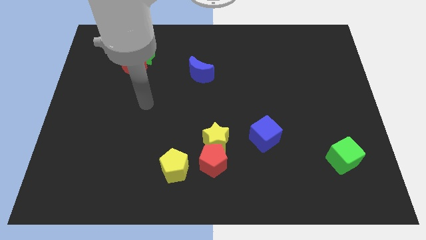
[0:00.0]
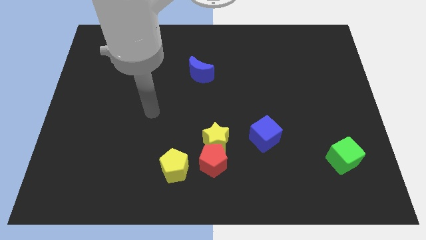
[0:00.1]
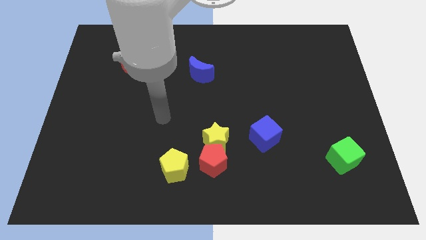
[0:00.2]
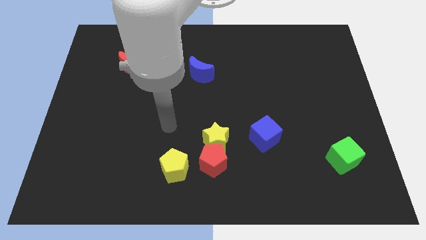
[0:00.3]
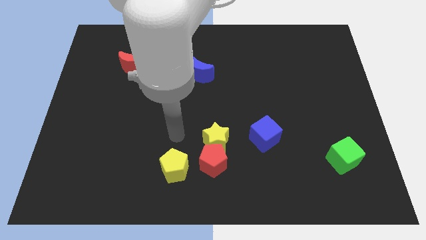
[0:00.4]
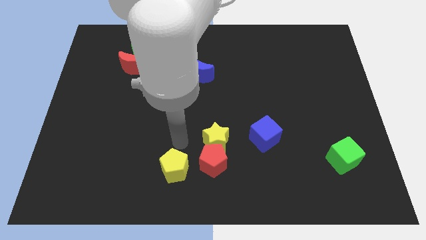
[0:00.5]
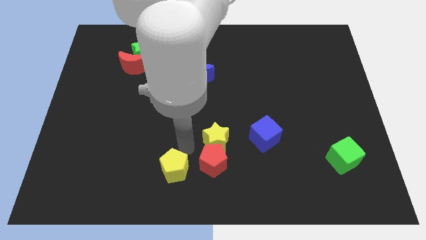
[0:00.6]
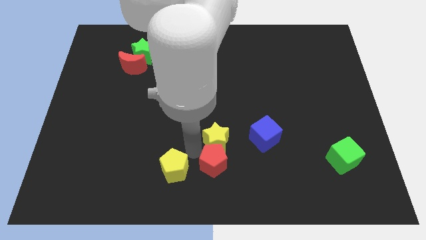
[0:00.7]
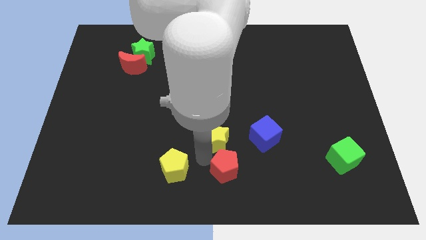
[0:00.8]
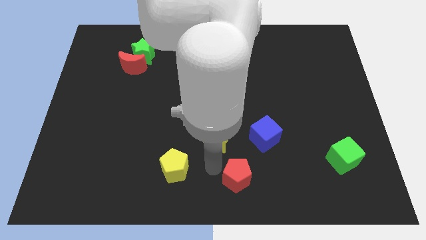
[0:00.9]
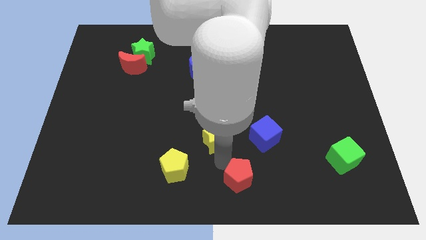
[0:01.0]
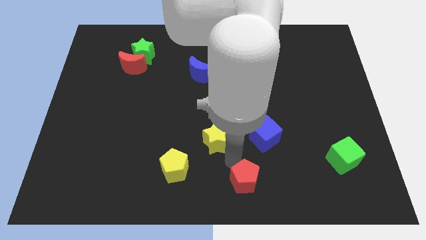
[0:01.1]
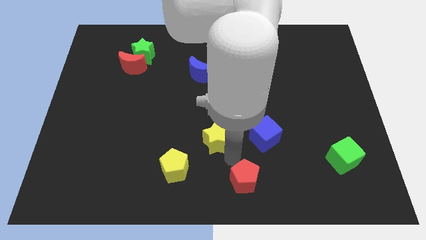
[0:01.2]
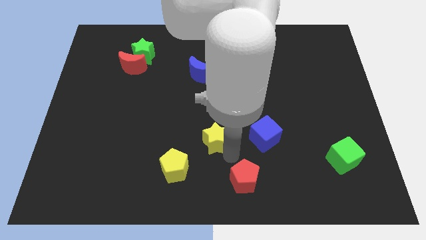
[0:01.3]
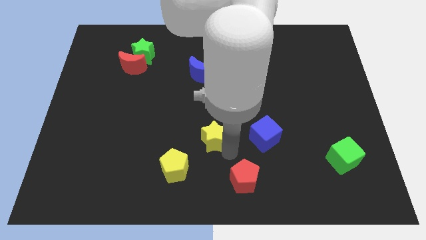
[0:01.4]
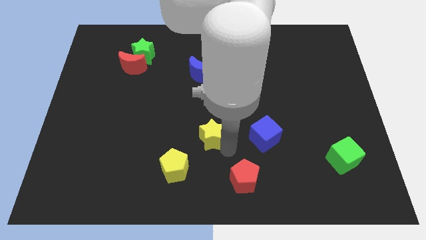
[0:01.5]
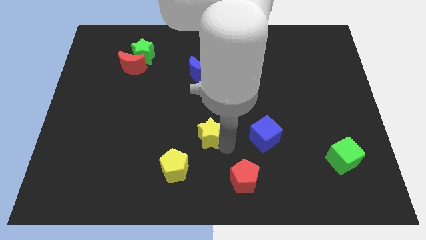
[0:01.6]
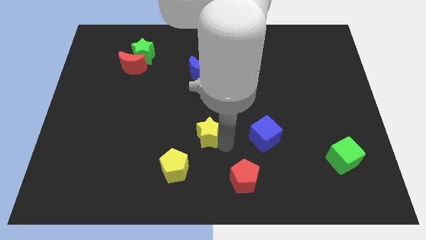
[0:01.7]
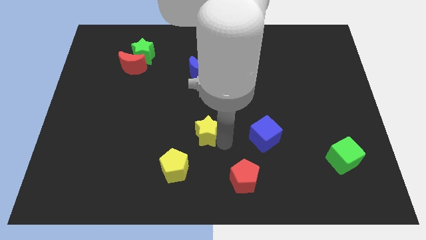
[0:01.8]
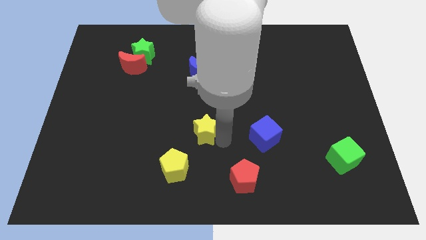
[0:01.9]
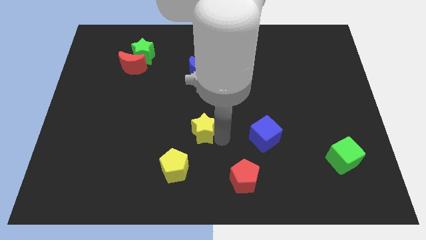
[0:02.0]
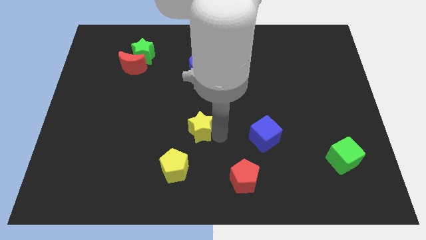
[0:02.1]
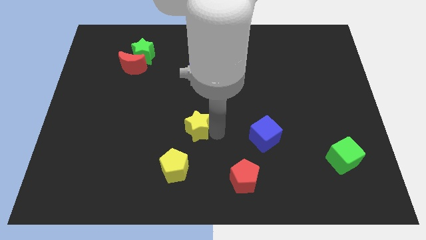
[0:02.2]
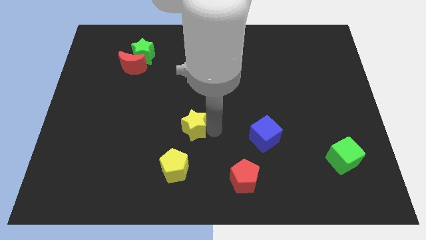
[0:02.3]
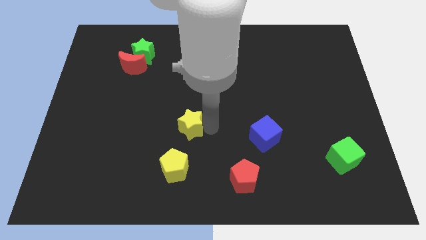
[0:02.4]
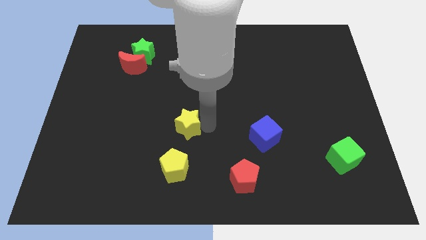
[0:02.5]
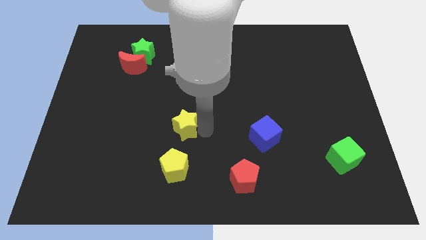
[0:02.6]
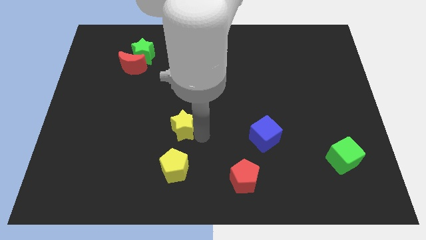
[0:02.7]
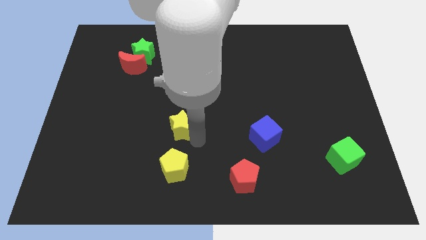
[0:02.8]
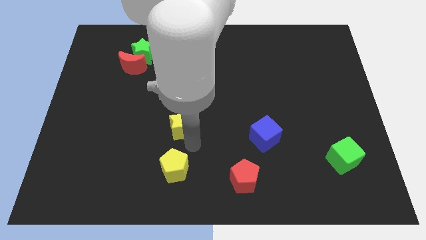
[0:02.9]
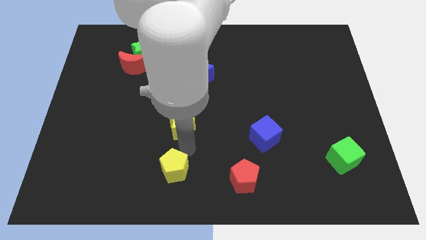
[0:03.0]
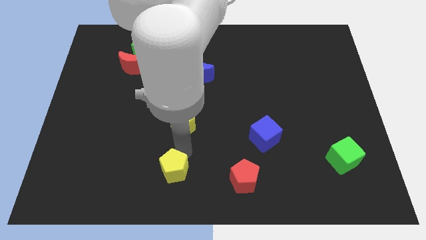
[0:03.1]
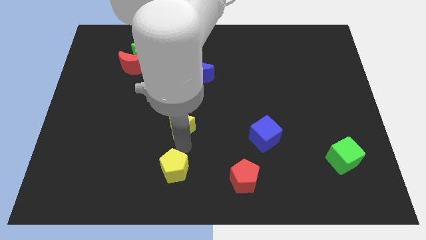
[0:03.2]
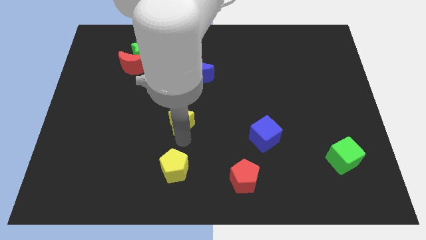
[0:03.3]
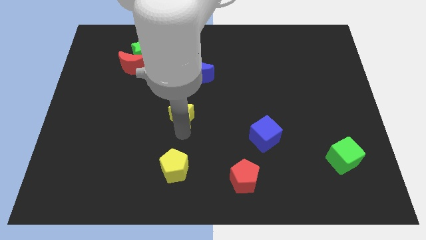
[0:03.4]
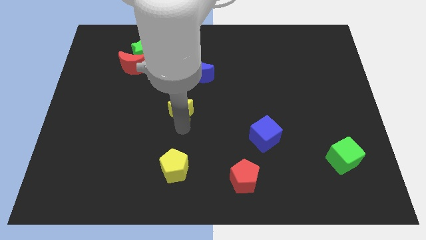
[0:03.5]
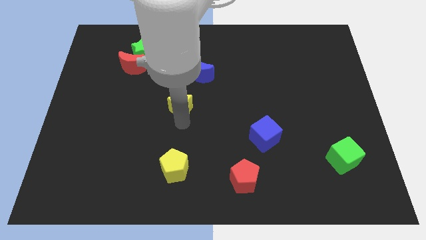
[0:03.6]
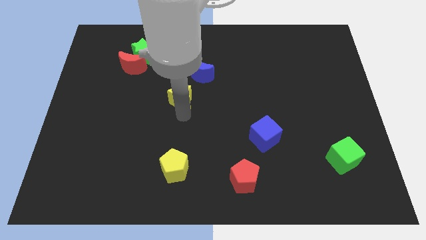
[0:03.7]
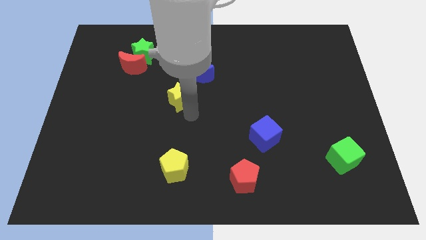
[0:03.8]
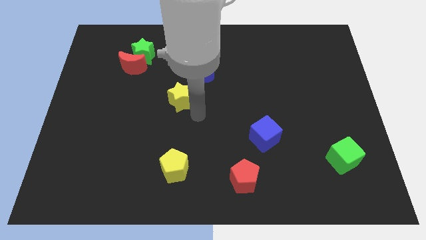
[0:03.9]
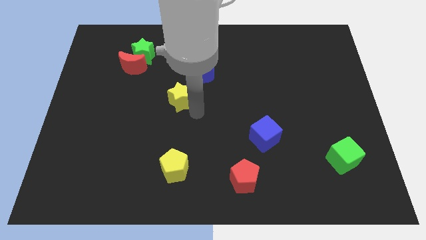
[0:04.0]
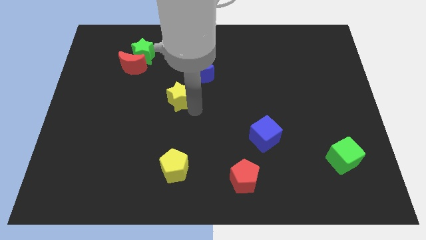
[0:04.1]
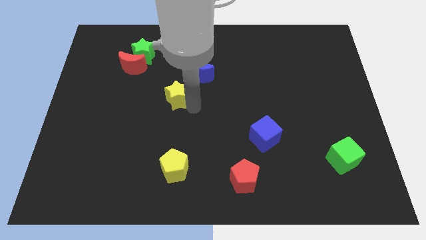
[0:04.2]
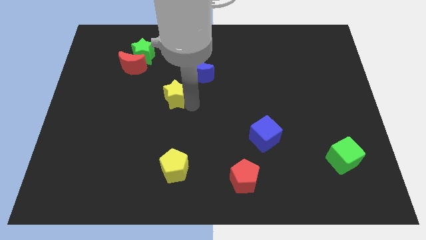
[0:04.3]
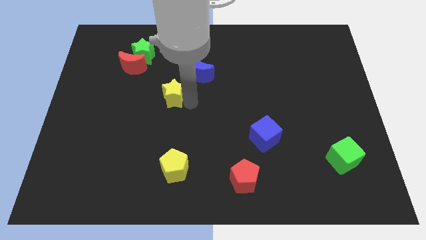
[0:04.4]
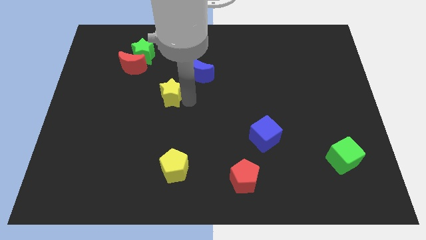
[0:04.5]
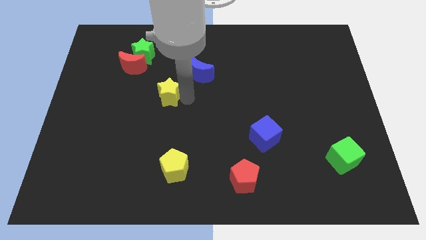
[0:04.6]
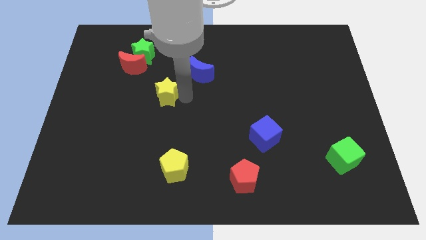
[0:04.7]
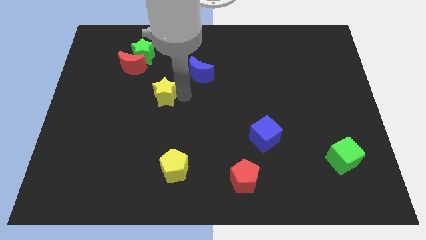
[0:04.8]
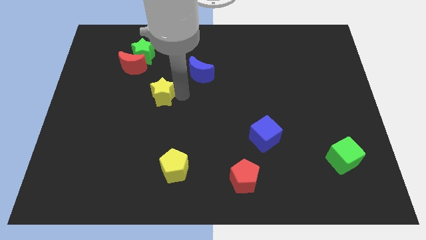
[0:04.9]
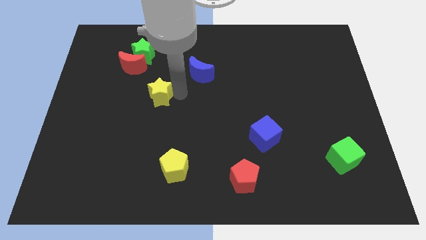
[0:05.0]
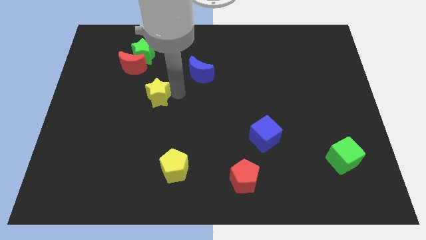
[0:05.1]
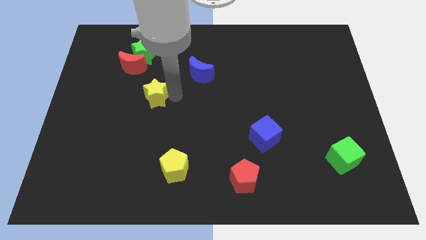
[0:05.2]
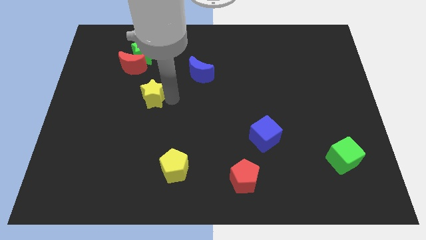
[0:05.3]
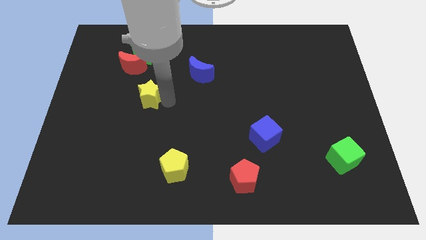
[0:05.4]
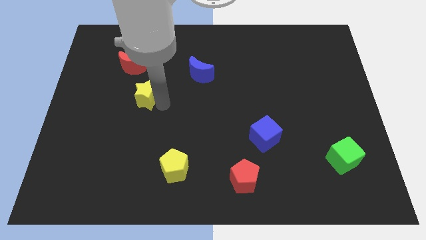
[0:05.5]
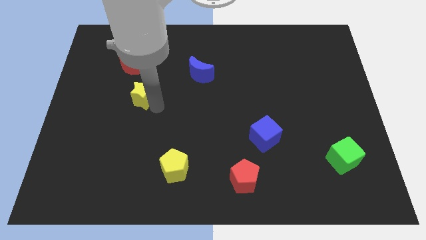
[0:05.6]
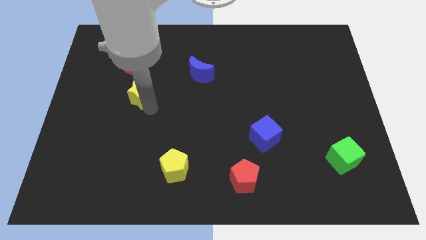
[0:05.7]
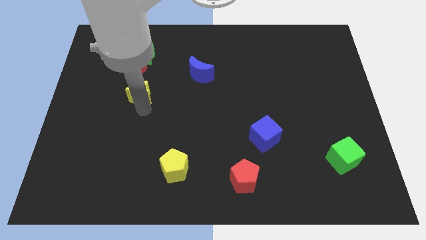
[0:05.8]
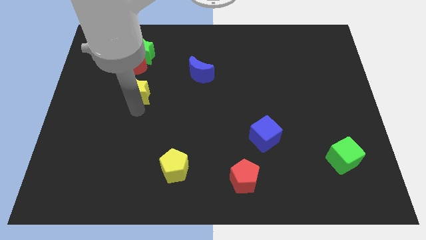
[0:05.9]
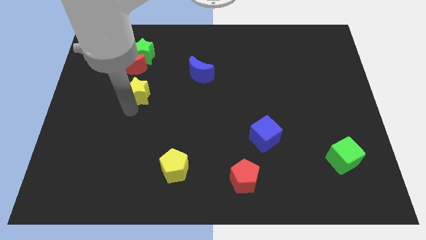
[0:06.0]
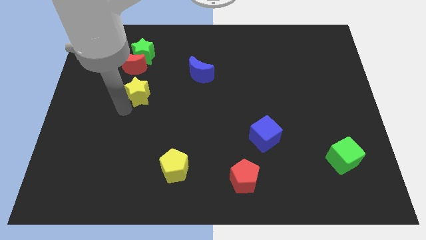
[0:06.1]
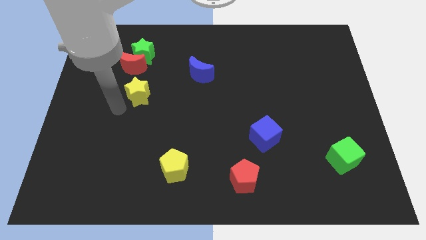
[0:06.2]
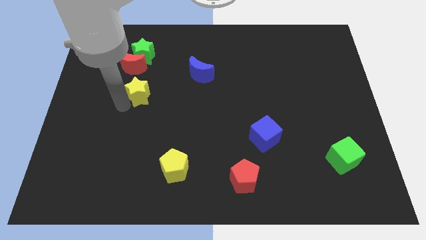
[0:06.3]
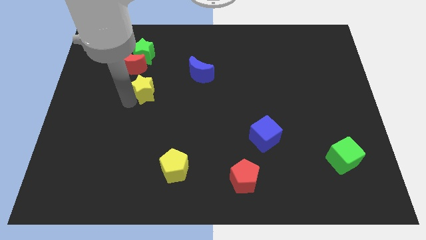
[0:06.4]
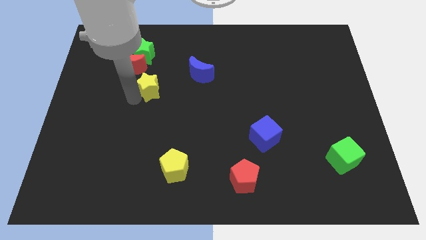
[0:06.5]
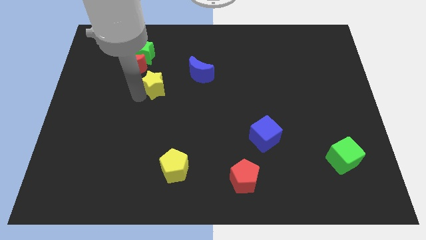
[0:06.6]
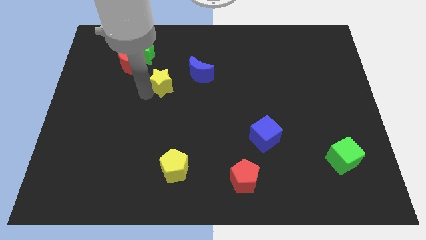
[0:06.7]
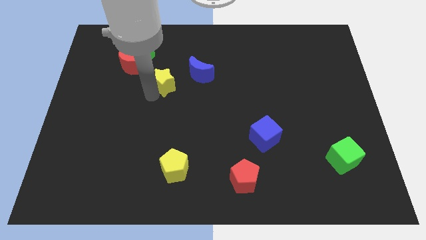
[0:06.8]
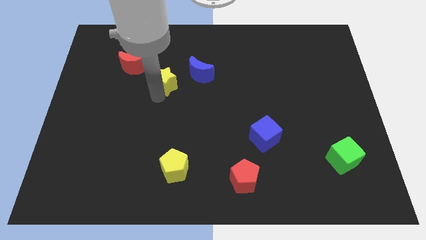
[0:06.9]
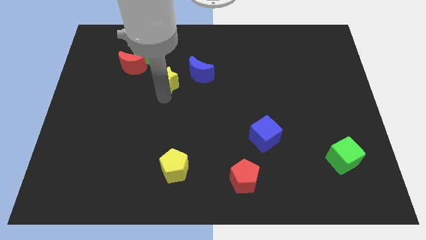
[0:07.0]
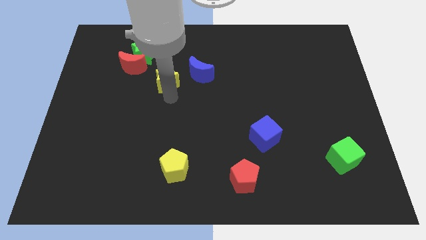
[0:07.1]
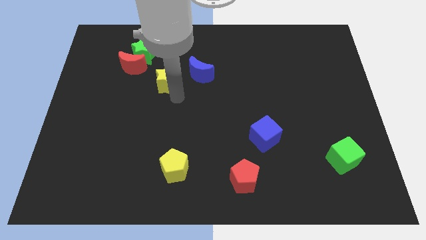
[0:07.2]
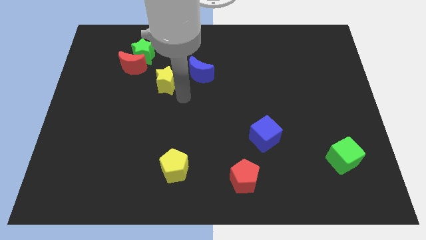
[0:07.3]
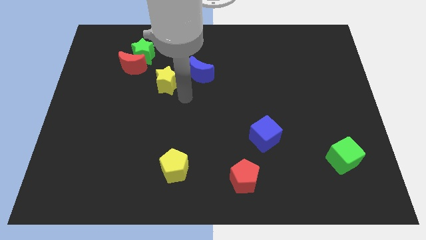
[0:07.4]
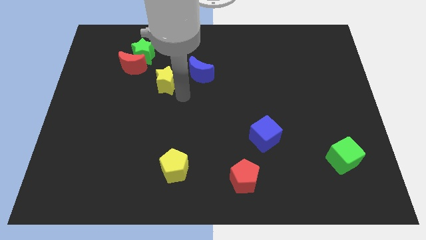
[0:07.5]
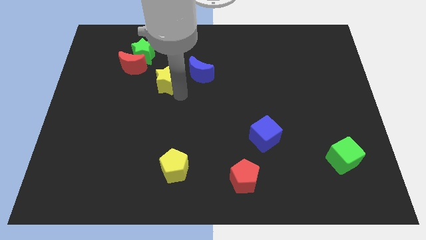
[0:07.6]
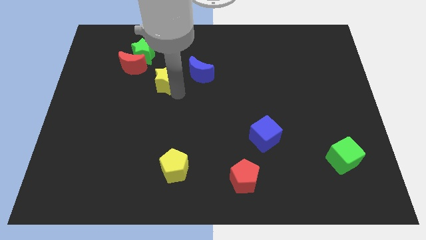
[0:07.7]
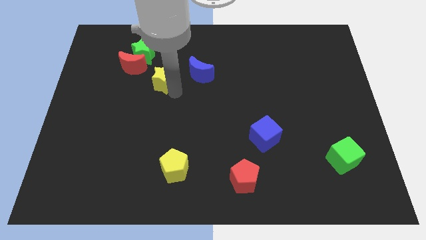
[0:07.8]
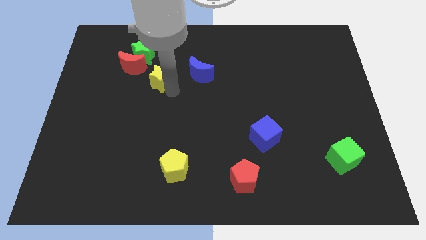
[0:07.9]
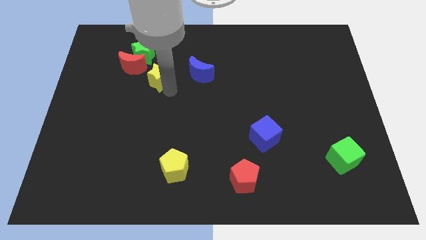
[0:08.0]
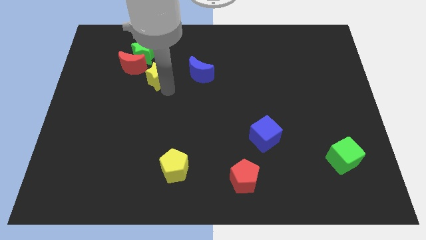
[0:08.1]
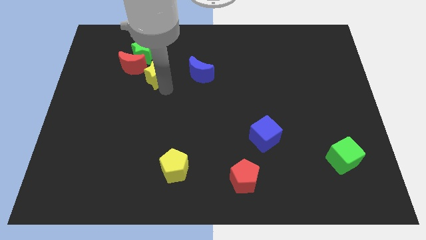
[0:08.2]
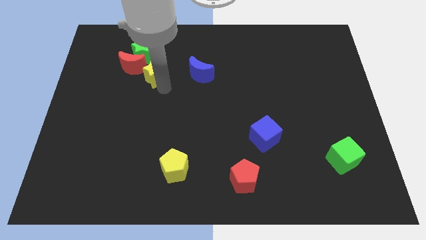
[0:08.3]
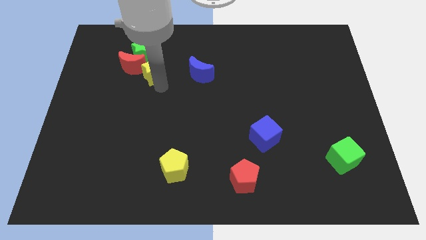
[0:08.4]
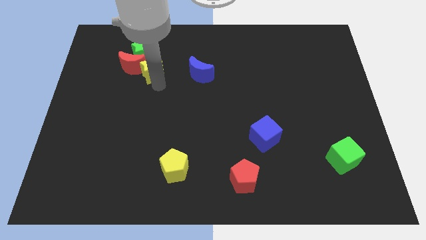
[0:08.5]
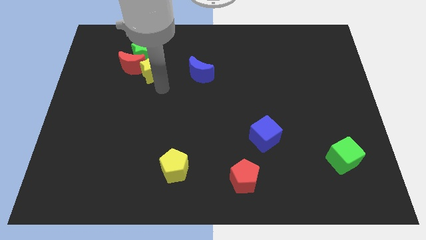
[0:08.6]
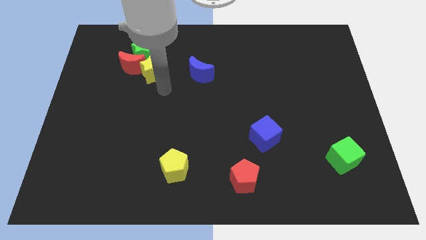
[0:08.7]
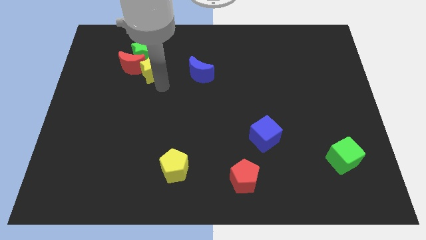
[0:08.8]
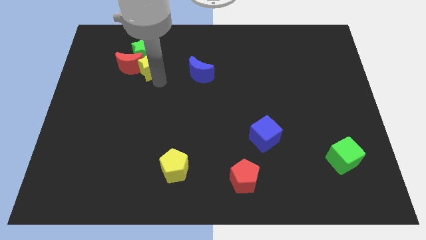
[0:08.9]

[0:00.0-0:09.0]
slide the yellow star next to the green star
